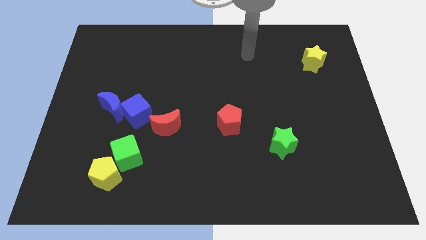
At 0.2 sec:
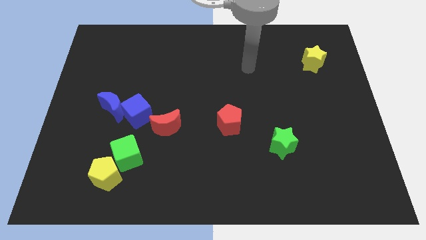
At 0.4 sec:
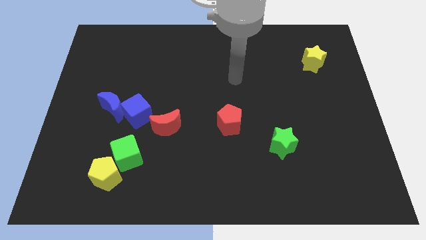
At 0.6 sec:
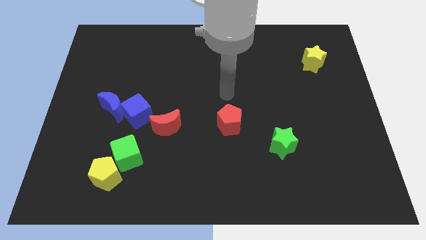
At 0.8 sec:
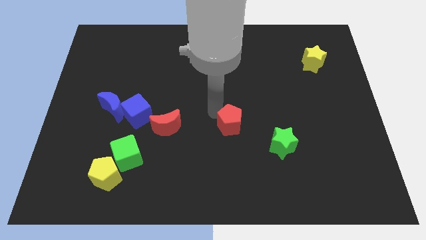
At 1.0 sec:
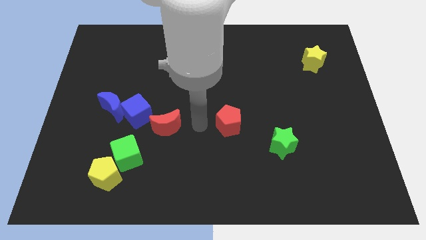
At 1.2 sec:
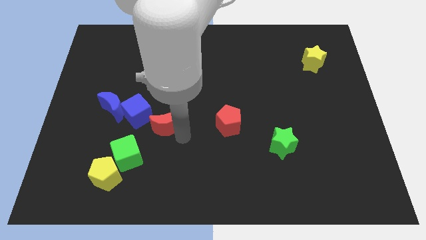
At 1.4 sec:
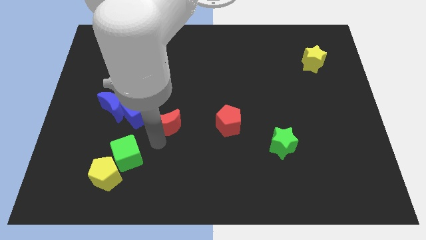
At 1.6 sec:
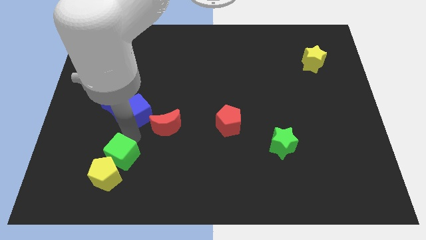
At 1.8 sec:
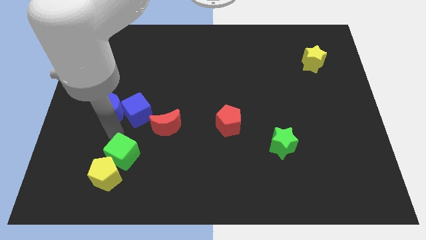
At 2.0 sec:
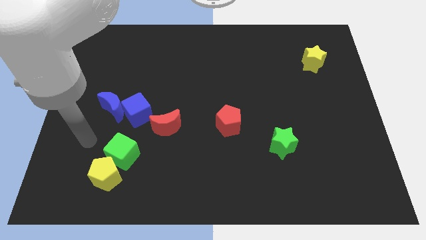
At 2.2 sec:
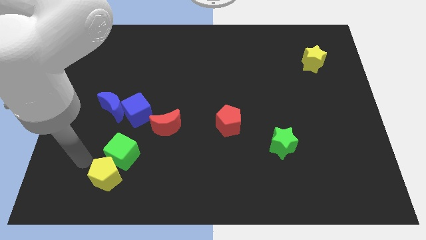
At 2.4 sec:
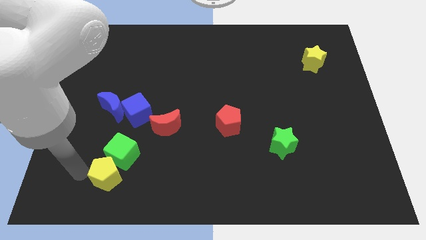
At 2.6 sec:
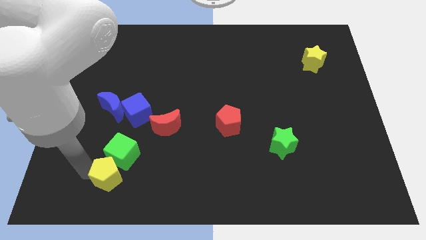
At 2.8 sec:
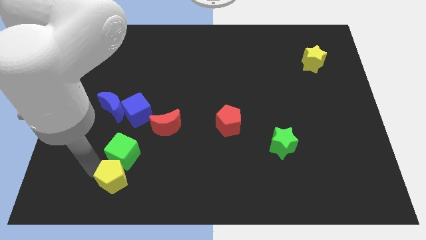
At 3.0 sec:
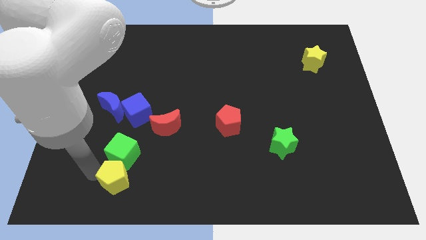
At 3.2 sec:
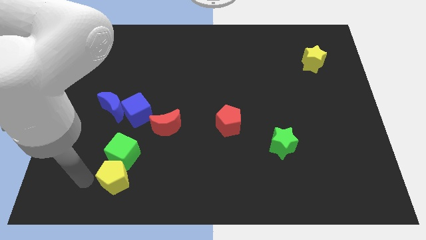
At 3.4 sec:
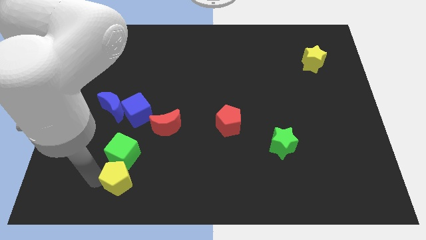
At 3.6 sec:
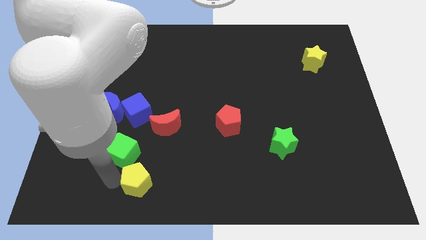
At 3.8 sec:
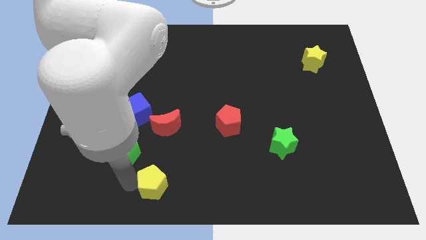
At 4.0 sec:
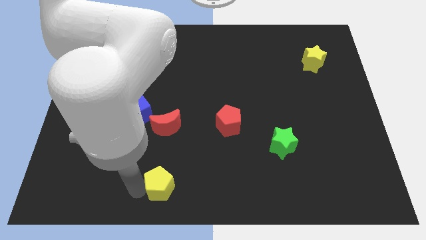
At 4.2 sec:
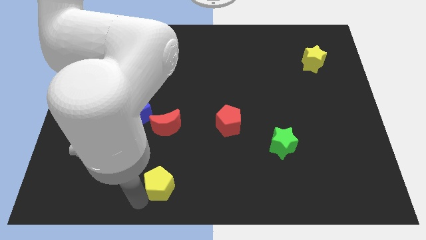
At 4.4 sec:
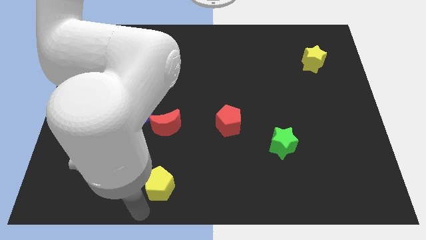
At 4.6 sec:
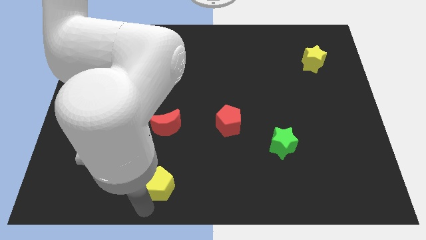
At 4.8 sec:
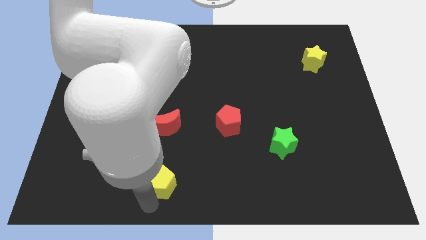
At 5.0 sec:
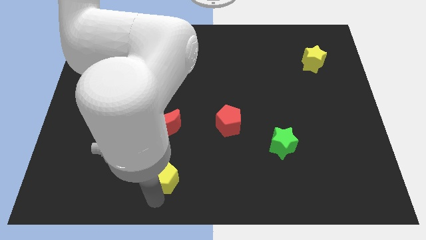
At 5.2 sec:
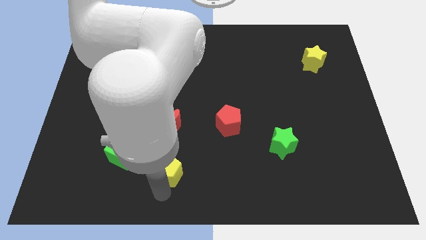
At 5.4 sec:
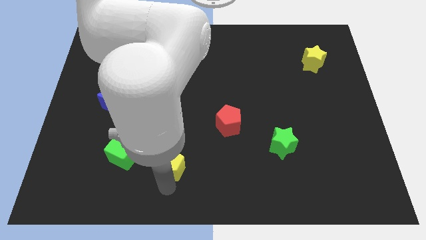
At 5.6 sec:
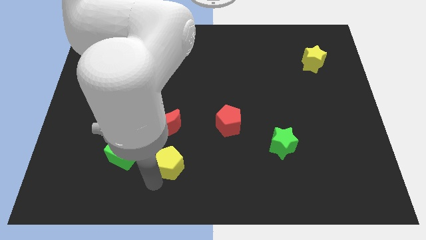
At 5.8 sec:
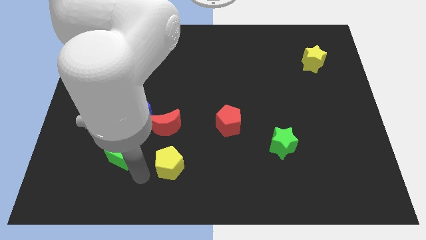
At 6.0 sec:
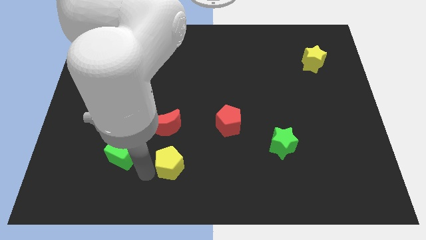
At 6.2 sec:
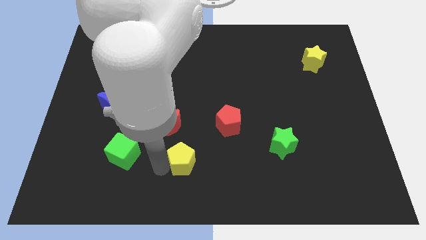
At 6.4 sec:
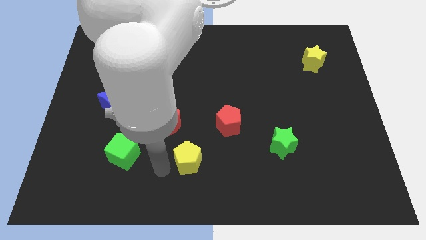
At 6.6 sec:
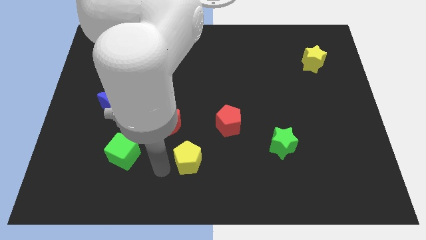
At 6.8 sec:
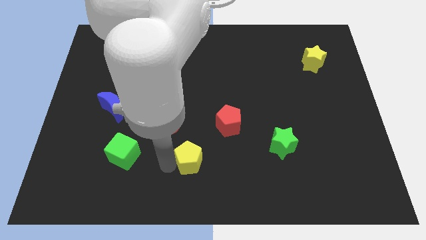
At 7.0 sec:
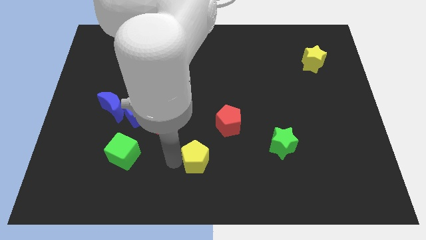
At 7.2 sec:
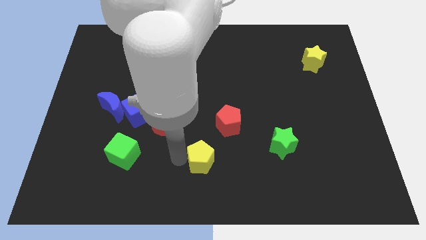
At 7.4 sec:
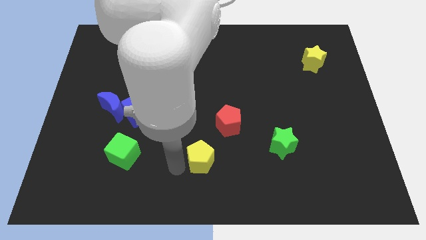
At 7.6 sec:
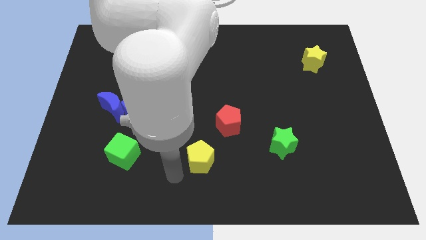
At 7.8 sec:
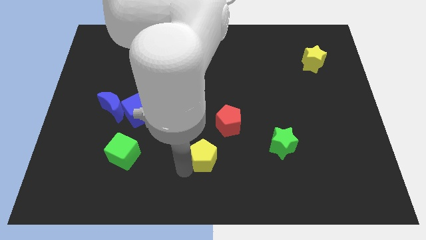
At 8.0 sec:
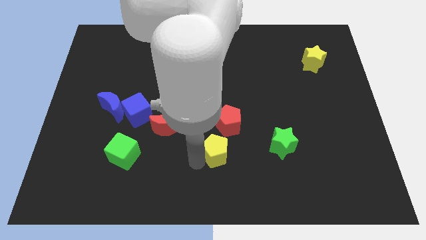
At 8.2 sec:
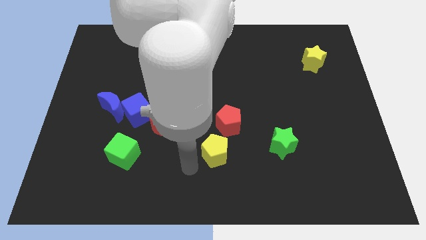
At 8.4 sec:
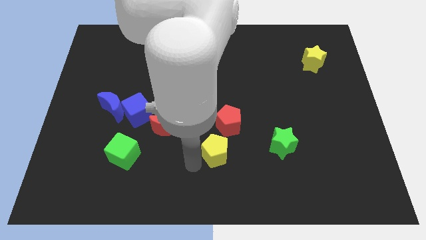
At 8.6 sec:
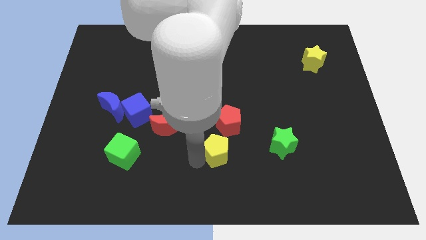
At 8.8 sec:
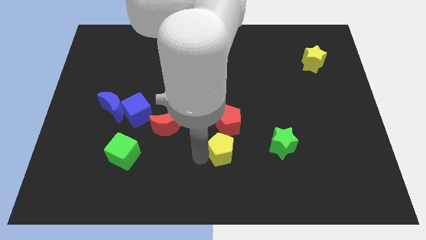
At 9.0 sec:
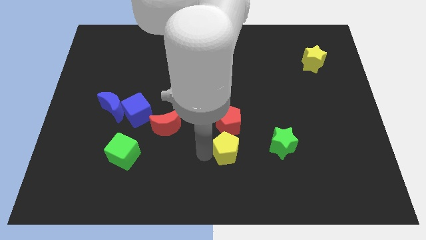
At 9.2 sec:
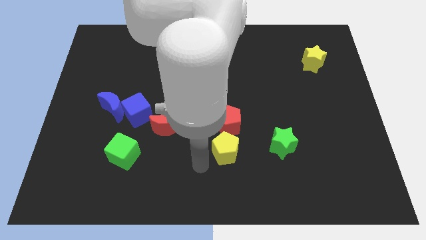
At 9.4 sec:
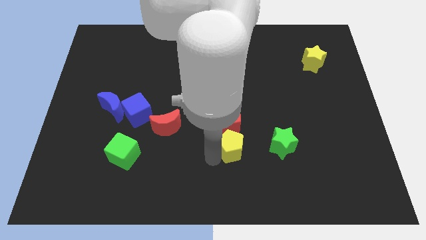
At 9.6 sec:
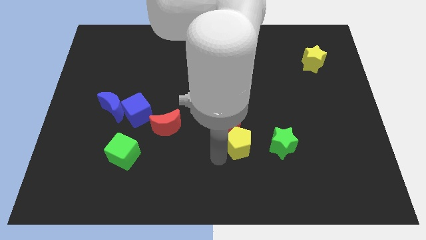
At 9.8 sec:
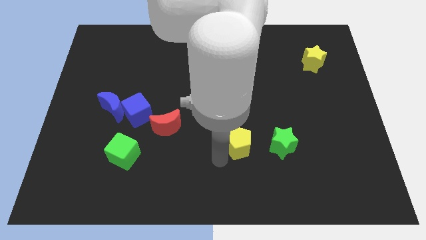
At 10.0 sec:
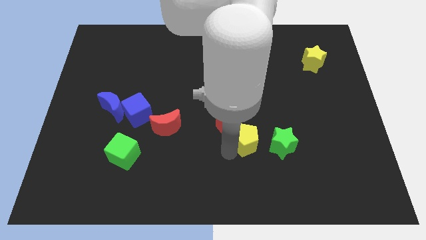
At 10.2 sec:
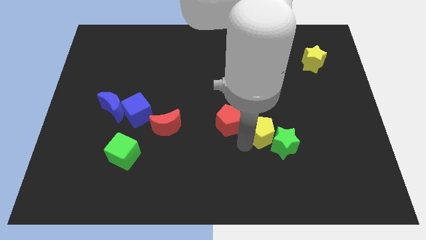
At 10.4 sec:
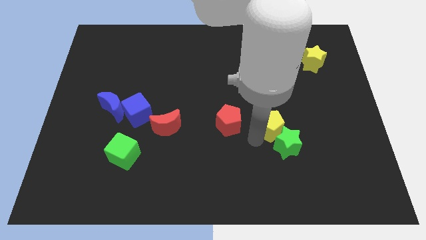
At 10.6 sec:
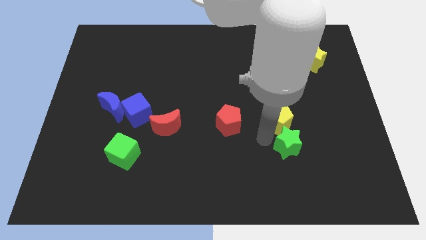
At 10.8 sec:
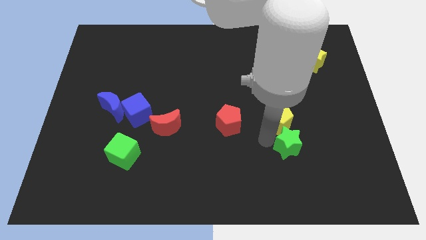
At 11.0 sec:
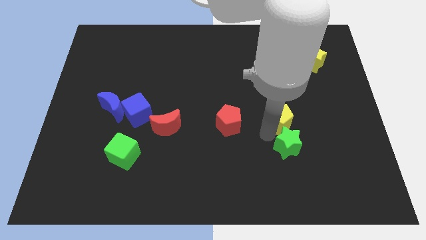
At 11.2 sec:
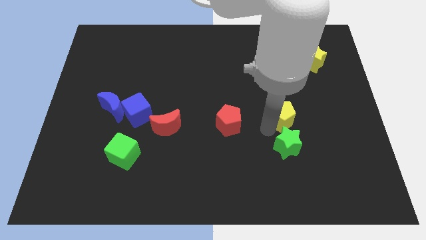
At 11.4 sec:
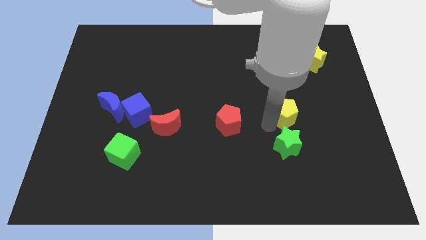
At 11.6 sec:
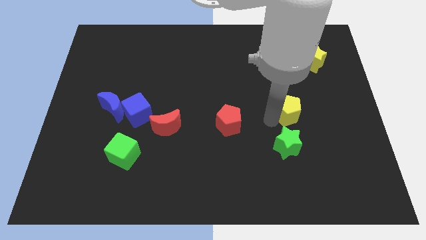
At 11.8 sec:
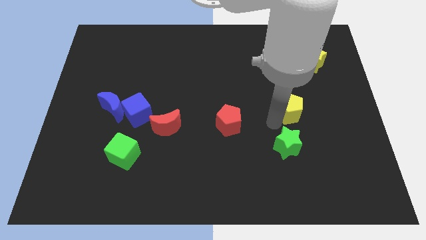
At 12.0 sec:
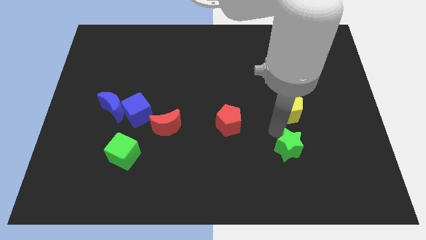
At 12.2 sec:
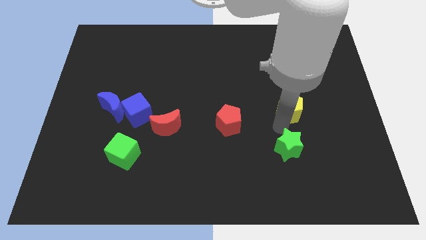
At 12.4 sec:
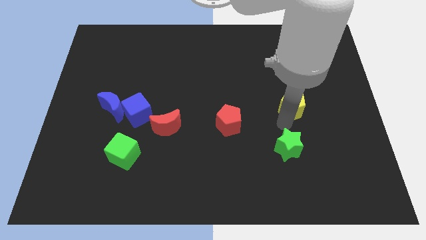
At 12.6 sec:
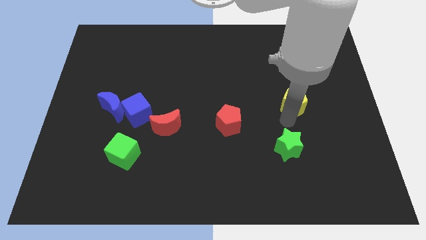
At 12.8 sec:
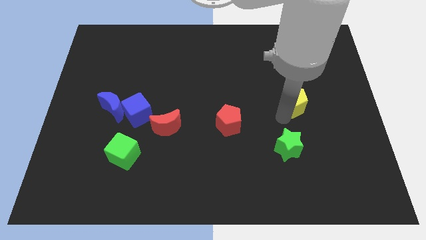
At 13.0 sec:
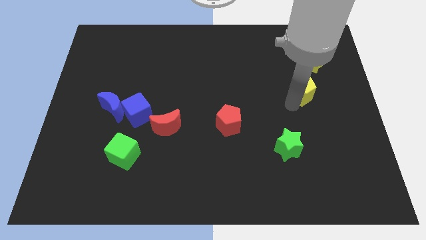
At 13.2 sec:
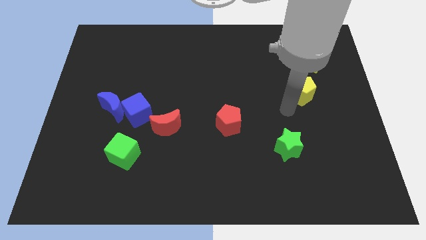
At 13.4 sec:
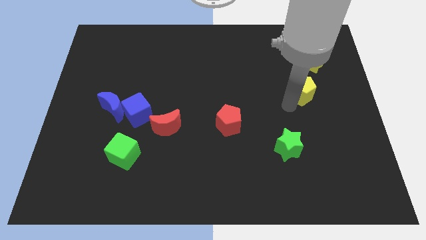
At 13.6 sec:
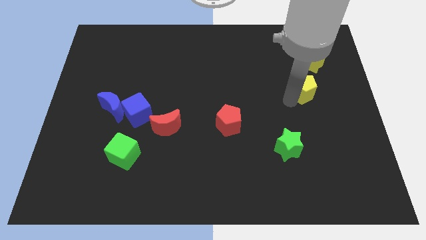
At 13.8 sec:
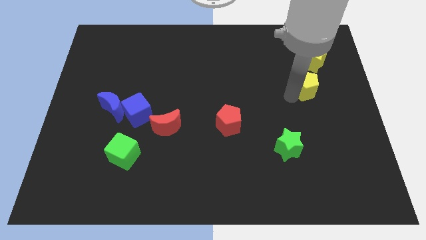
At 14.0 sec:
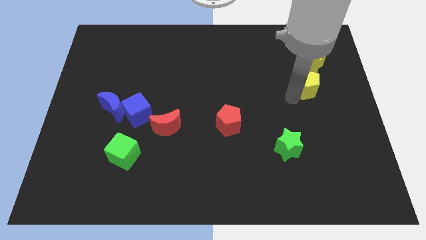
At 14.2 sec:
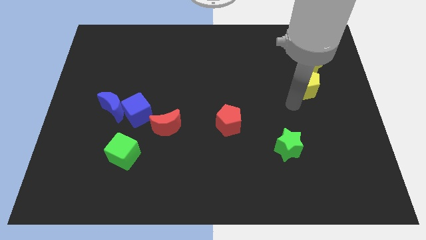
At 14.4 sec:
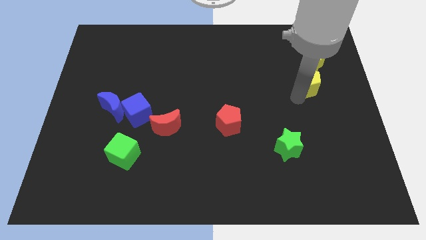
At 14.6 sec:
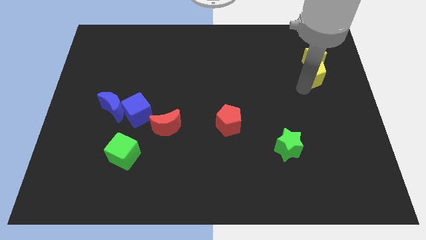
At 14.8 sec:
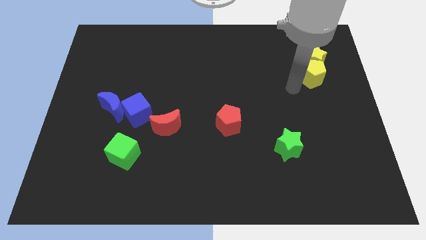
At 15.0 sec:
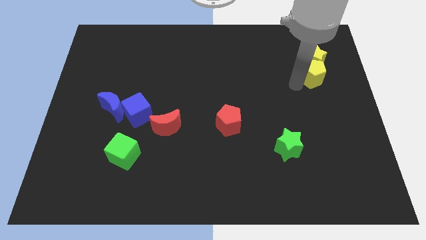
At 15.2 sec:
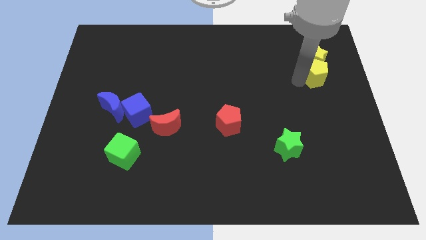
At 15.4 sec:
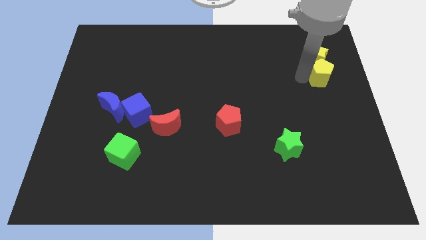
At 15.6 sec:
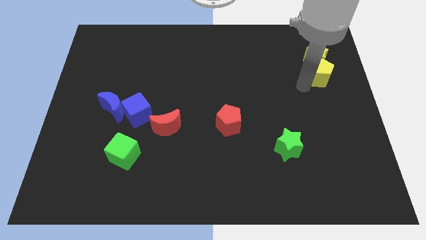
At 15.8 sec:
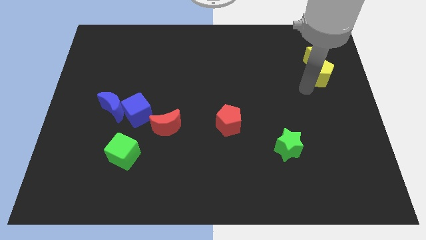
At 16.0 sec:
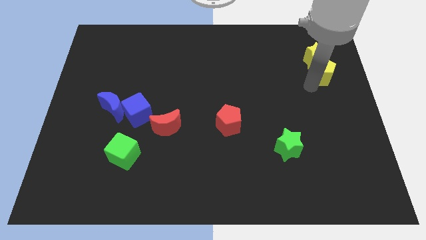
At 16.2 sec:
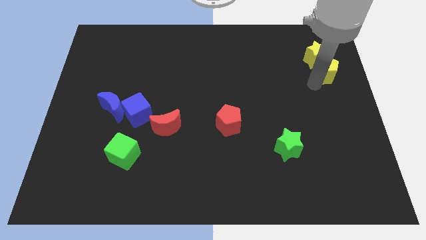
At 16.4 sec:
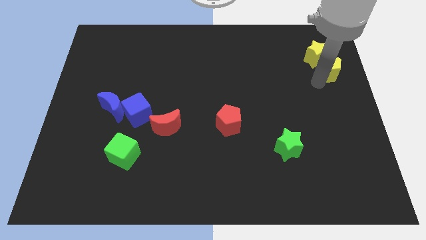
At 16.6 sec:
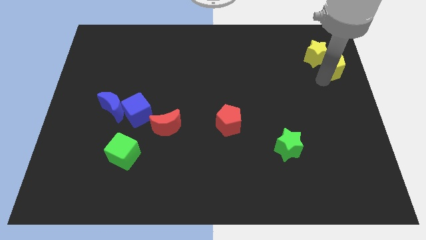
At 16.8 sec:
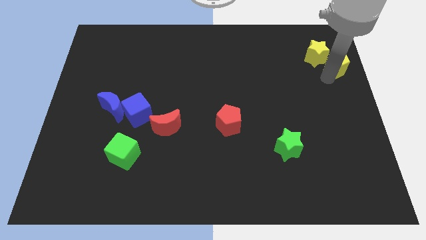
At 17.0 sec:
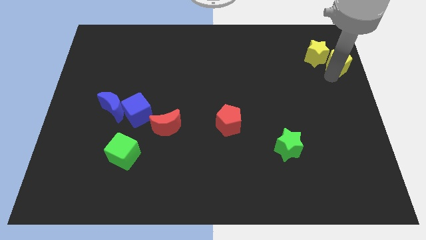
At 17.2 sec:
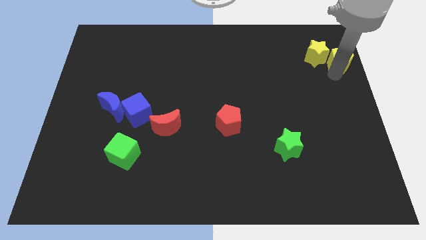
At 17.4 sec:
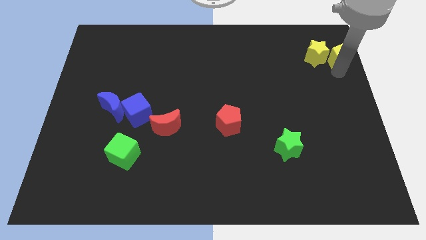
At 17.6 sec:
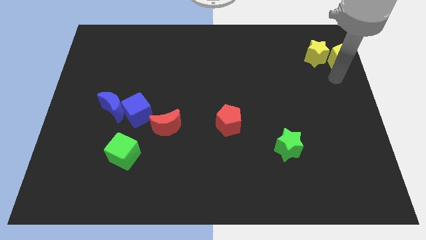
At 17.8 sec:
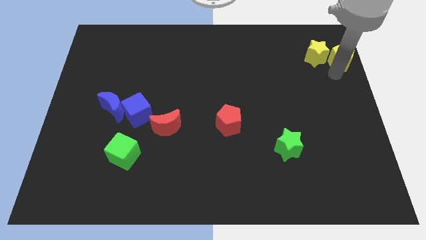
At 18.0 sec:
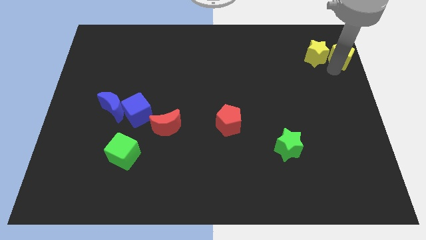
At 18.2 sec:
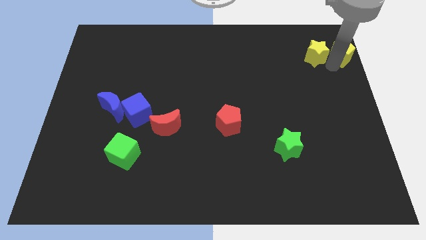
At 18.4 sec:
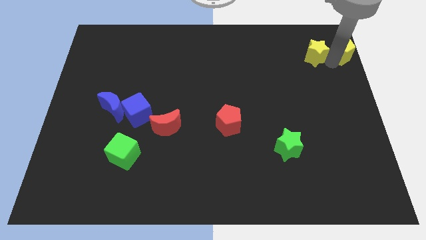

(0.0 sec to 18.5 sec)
move the yellow pentagon to the upper right corner
